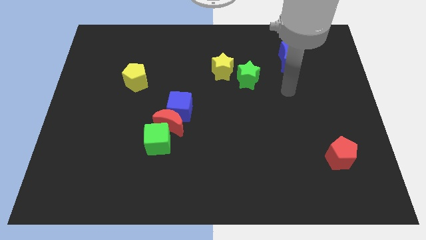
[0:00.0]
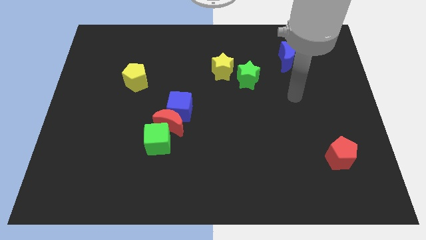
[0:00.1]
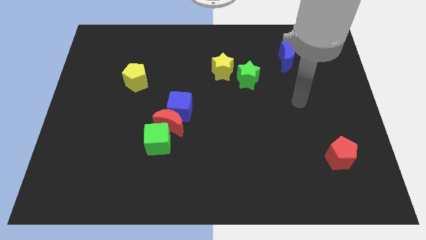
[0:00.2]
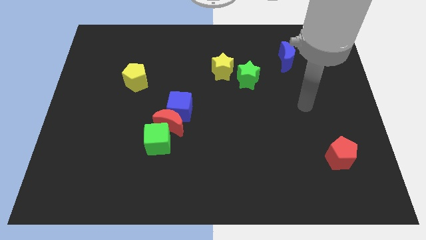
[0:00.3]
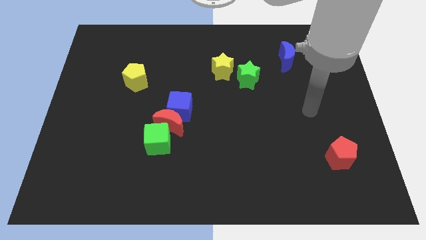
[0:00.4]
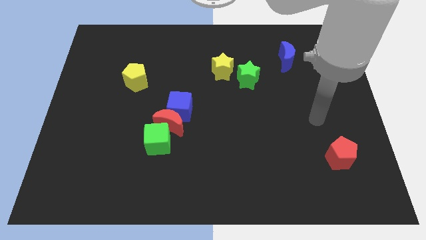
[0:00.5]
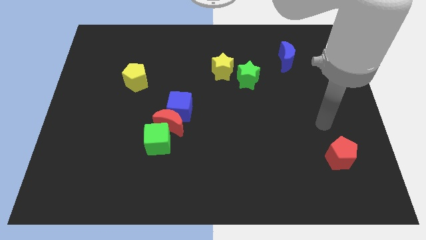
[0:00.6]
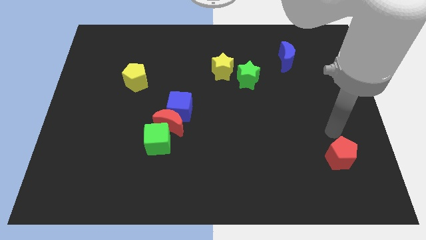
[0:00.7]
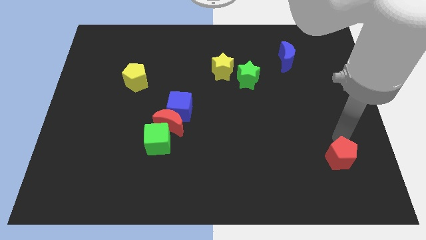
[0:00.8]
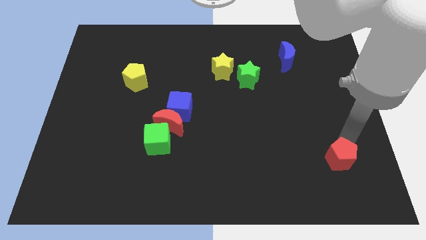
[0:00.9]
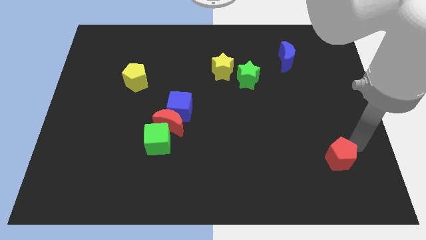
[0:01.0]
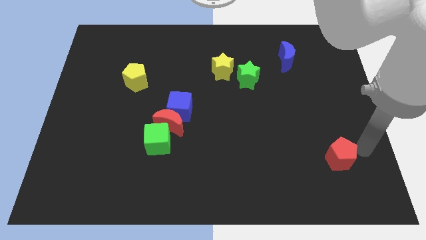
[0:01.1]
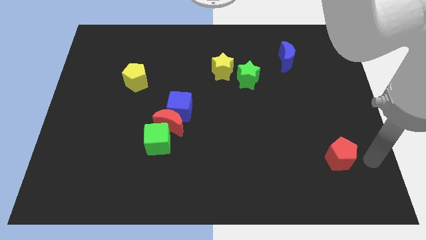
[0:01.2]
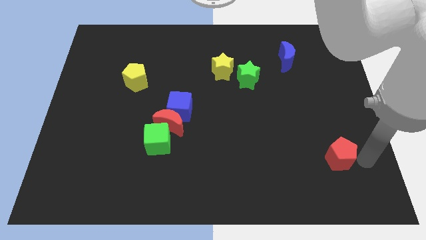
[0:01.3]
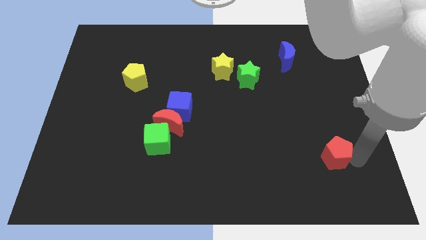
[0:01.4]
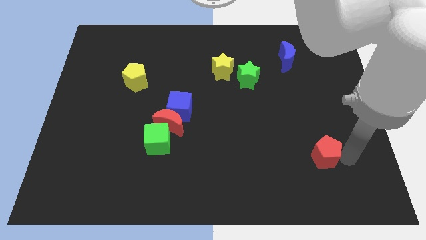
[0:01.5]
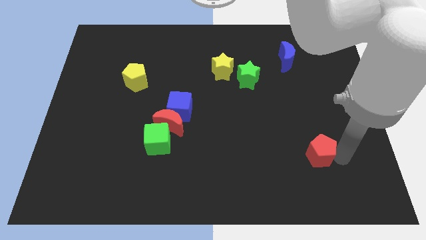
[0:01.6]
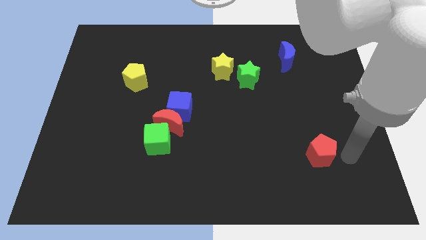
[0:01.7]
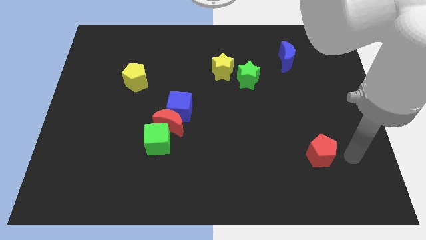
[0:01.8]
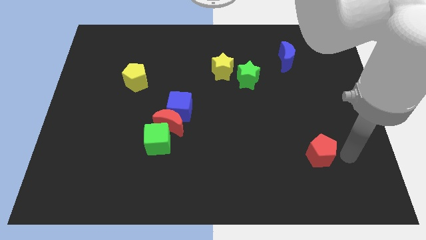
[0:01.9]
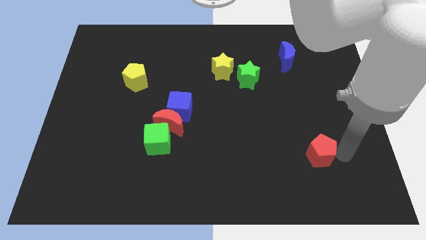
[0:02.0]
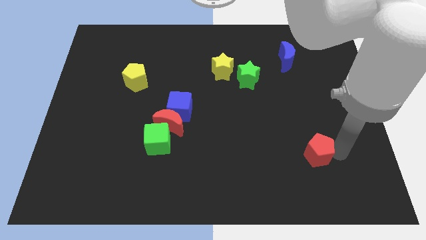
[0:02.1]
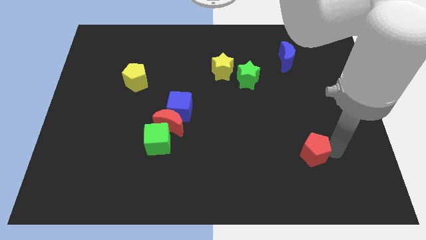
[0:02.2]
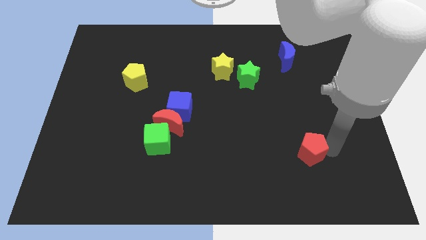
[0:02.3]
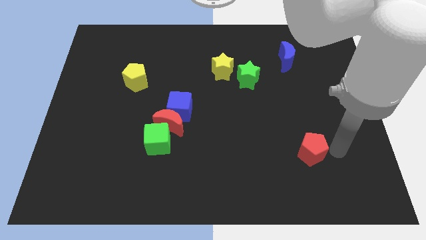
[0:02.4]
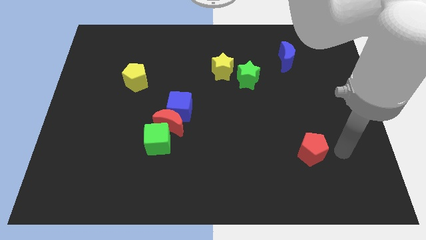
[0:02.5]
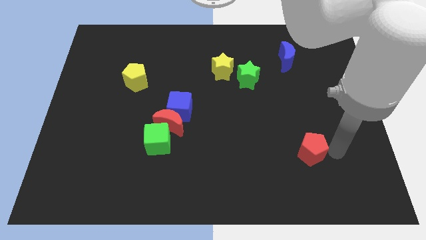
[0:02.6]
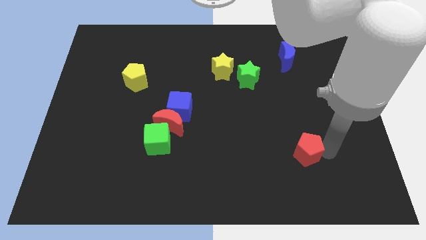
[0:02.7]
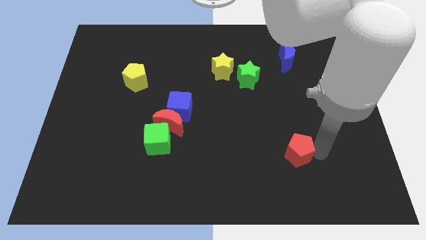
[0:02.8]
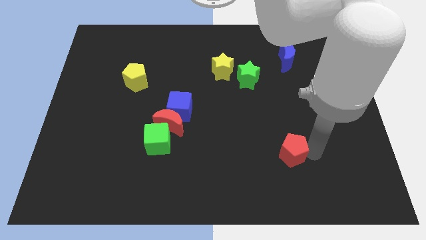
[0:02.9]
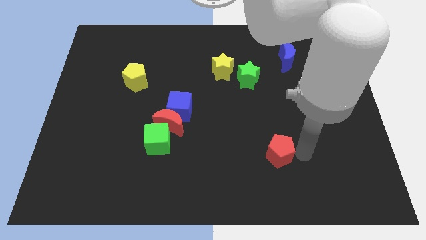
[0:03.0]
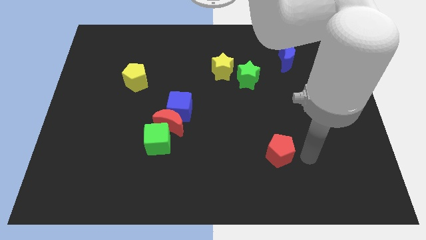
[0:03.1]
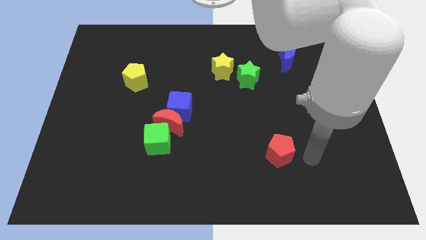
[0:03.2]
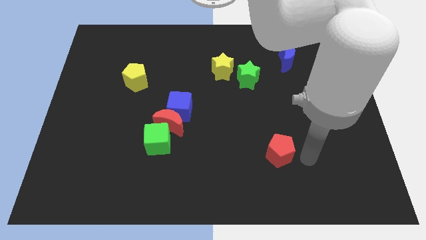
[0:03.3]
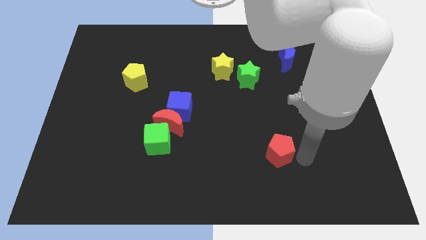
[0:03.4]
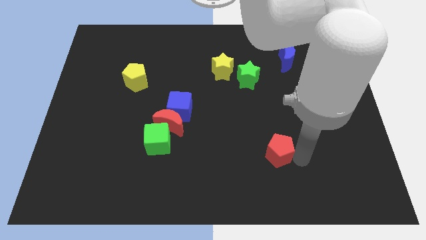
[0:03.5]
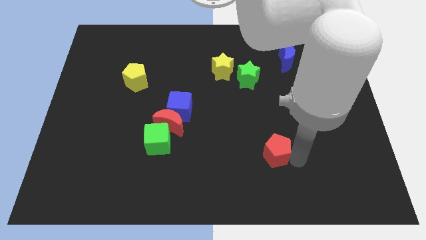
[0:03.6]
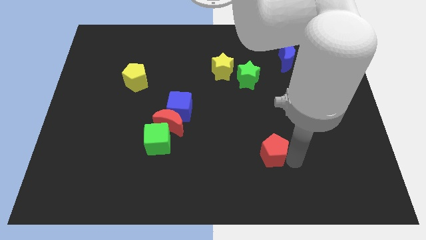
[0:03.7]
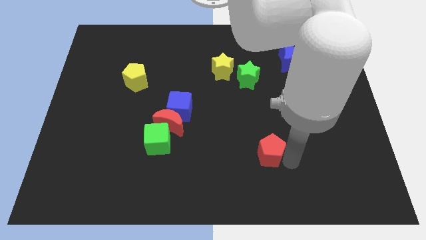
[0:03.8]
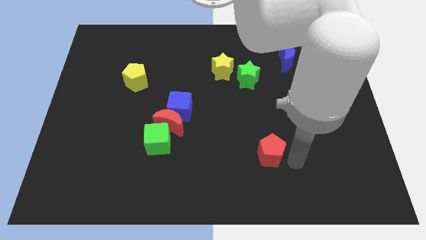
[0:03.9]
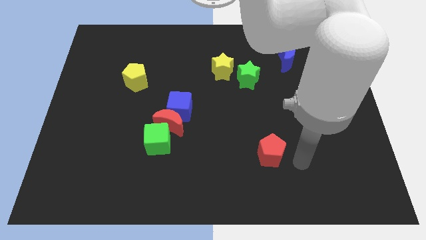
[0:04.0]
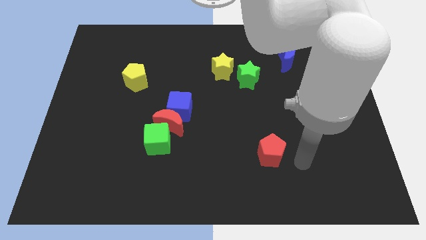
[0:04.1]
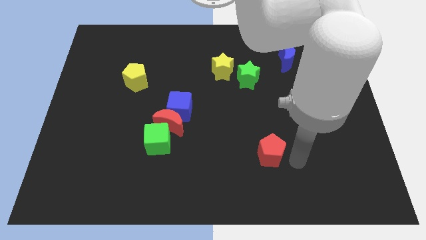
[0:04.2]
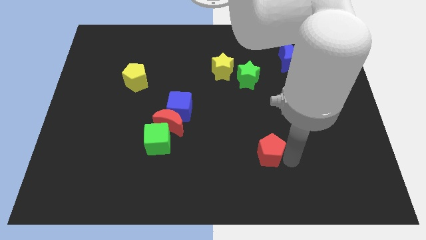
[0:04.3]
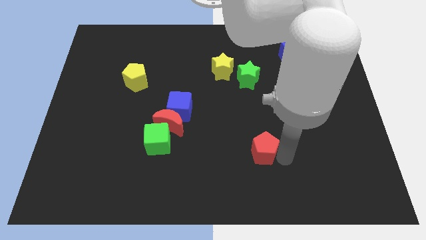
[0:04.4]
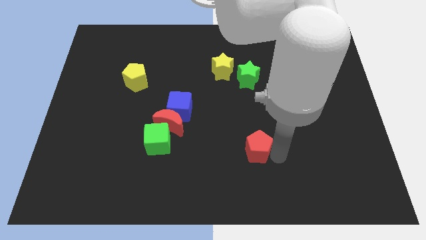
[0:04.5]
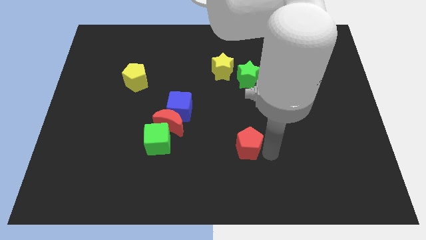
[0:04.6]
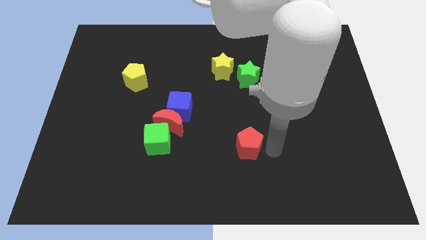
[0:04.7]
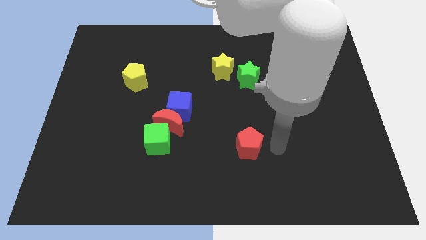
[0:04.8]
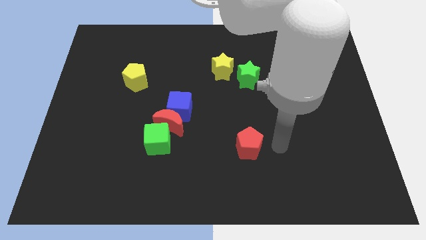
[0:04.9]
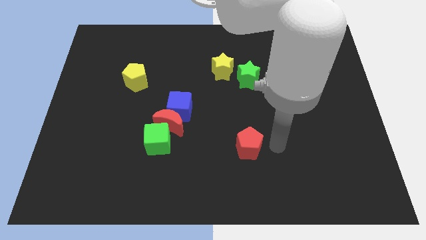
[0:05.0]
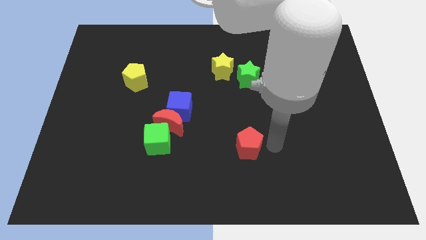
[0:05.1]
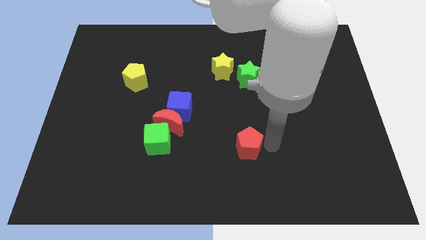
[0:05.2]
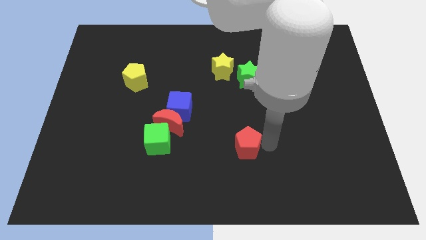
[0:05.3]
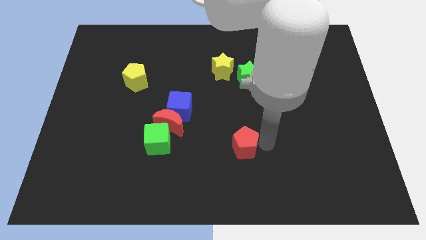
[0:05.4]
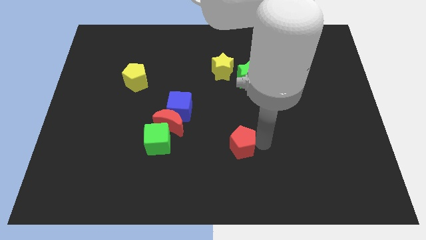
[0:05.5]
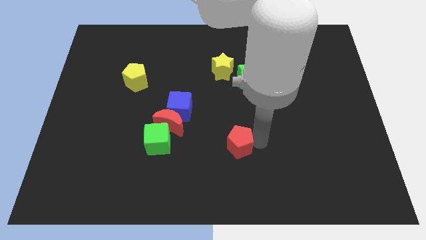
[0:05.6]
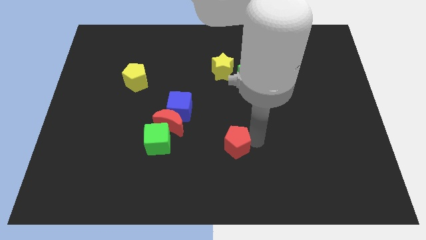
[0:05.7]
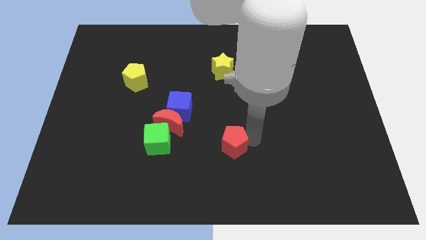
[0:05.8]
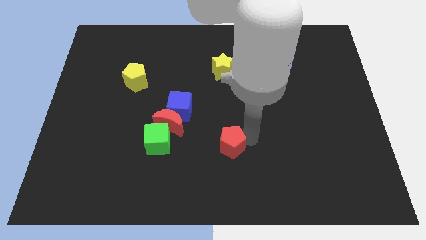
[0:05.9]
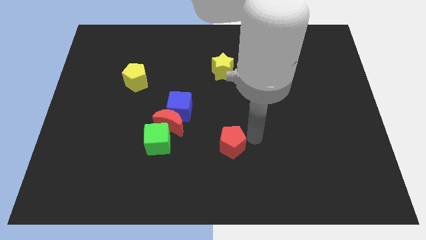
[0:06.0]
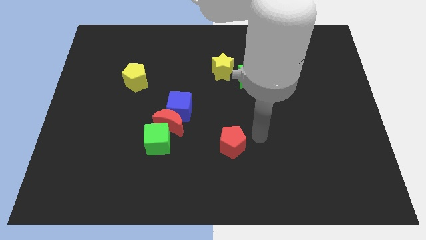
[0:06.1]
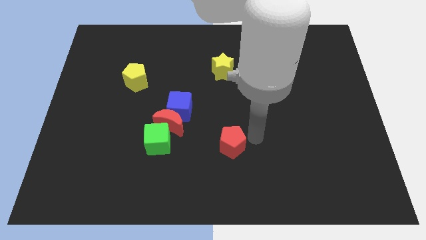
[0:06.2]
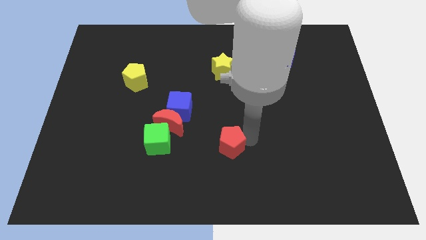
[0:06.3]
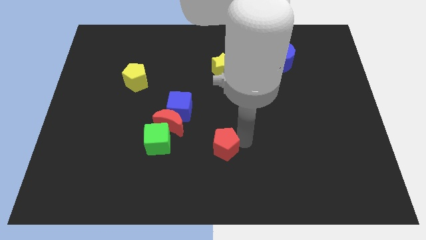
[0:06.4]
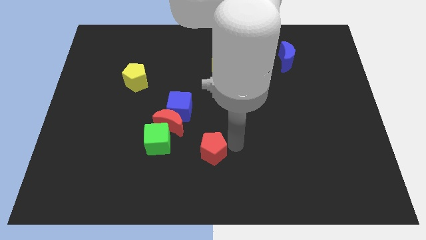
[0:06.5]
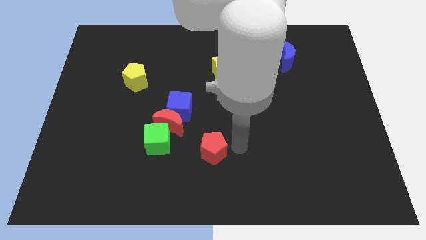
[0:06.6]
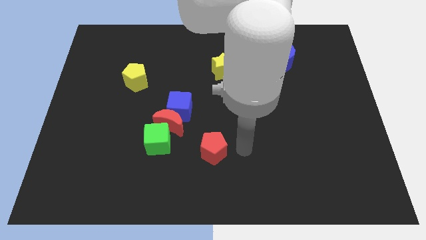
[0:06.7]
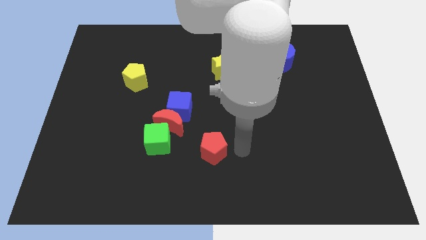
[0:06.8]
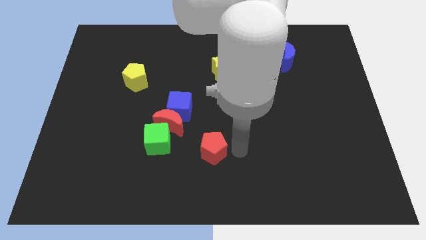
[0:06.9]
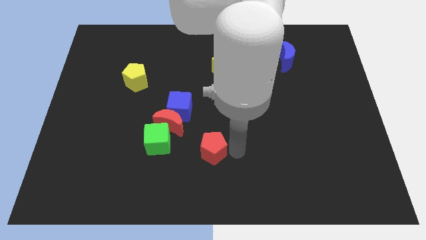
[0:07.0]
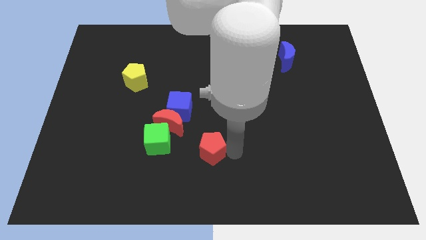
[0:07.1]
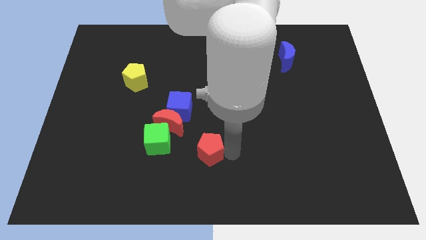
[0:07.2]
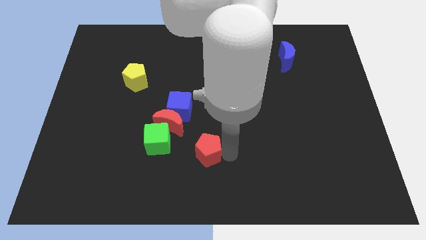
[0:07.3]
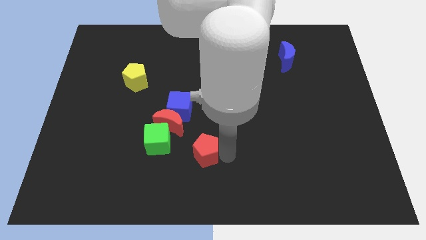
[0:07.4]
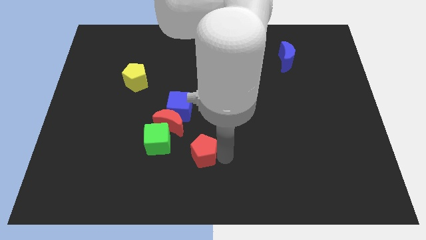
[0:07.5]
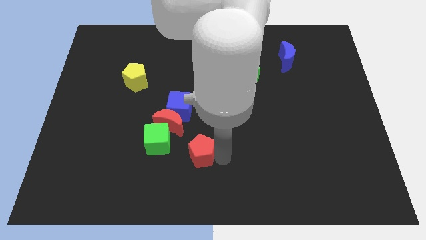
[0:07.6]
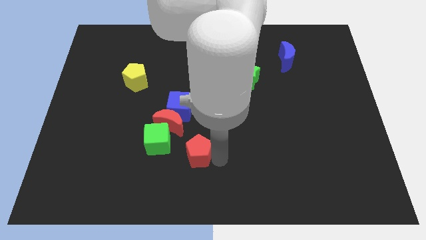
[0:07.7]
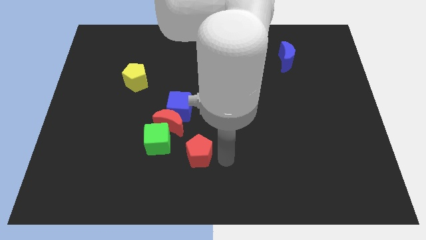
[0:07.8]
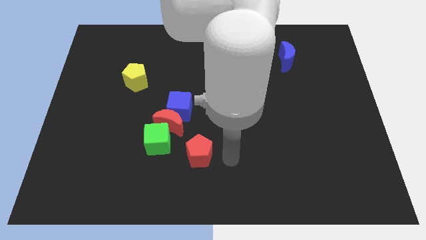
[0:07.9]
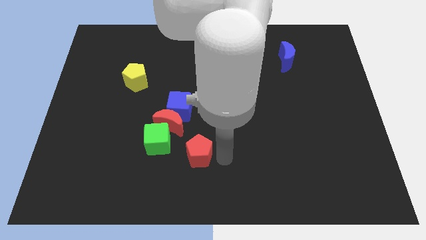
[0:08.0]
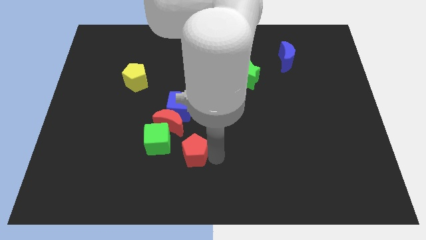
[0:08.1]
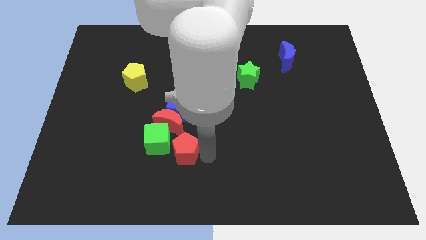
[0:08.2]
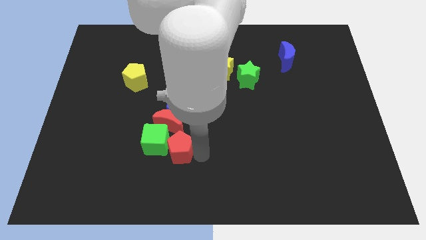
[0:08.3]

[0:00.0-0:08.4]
move the red pentagon towards the green cube

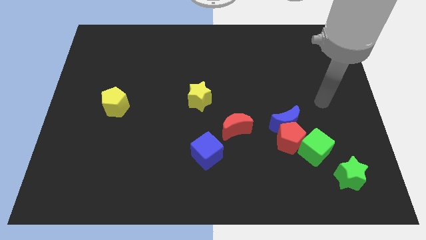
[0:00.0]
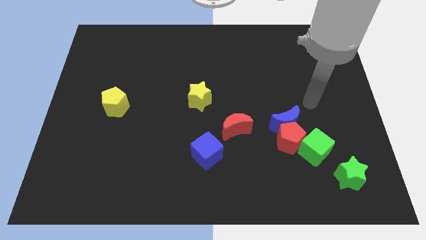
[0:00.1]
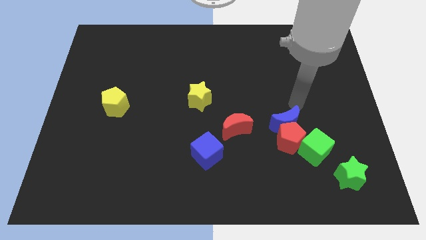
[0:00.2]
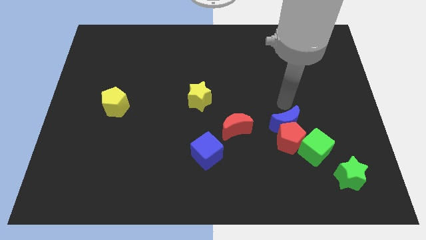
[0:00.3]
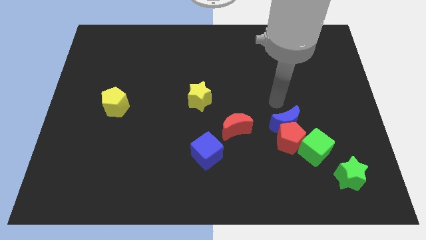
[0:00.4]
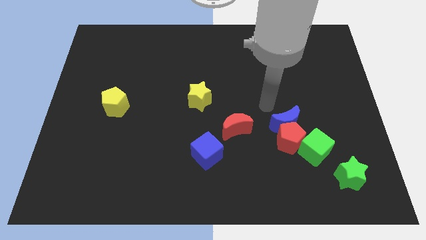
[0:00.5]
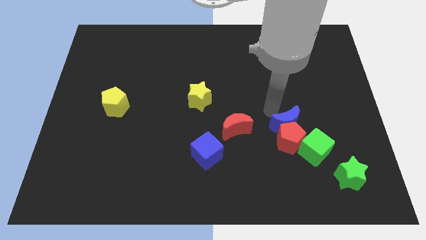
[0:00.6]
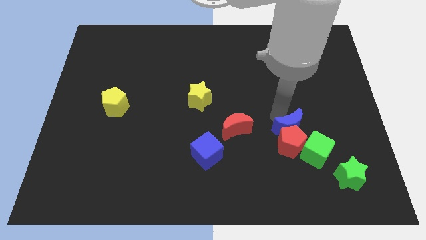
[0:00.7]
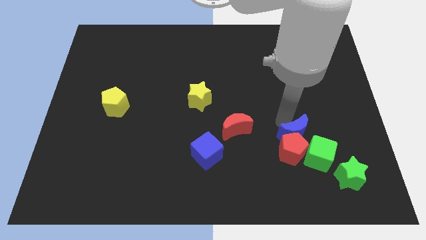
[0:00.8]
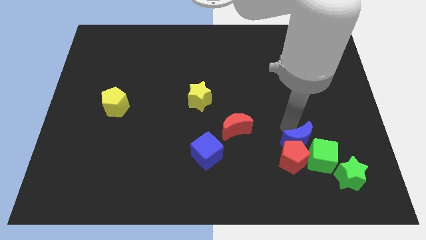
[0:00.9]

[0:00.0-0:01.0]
push the blue moon towards the green cube
